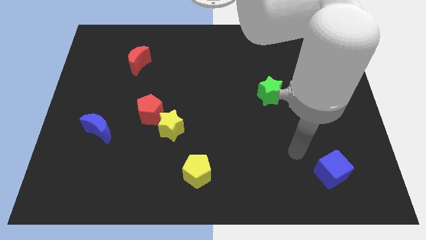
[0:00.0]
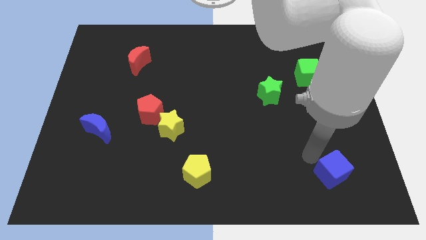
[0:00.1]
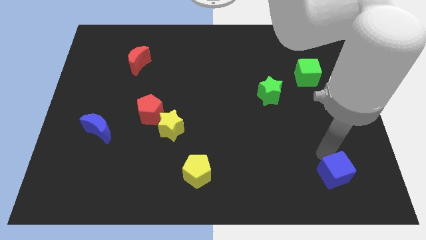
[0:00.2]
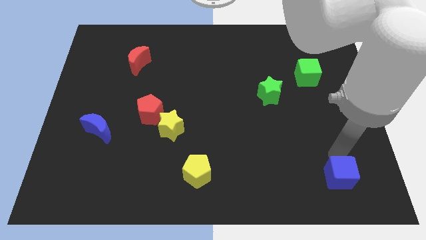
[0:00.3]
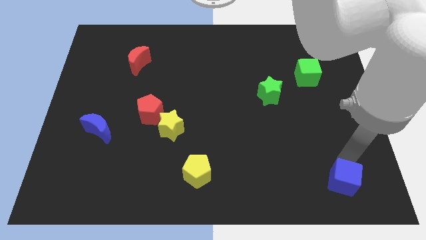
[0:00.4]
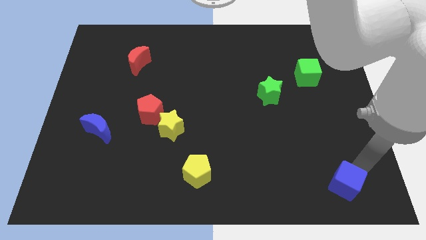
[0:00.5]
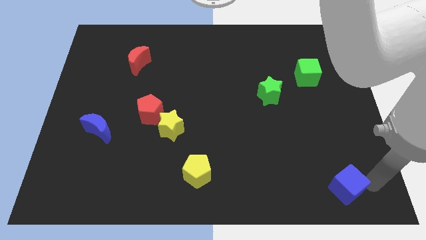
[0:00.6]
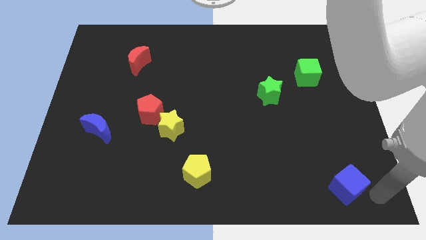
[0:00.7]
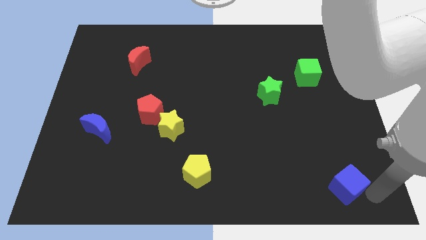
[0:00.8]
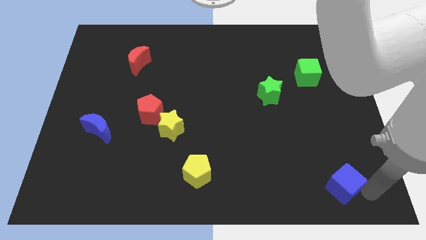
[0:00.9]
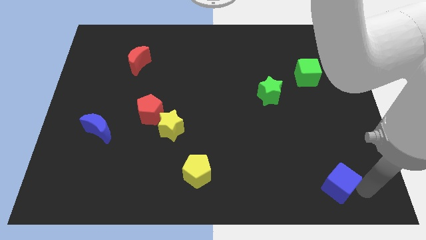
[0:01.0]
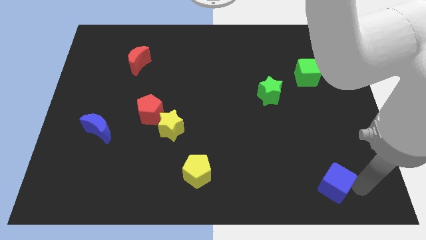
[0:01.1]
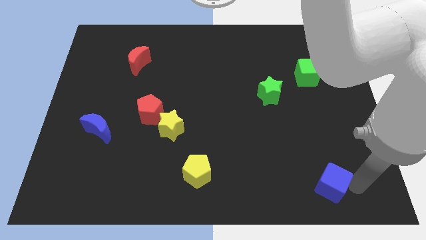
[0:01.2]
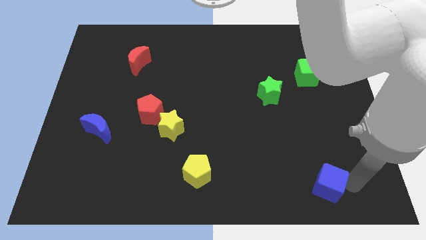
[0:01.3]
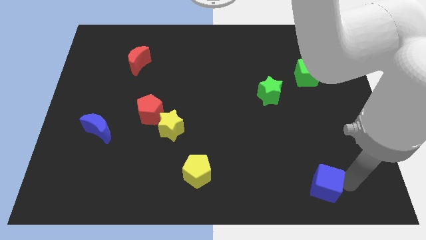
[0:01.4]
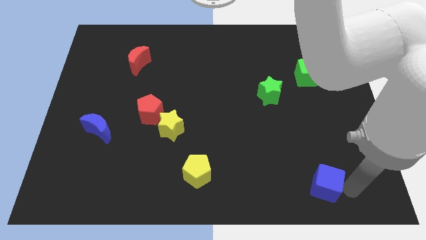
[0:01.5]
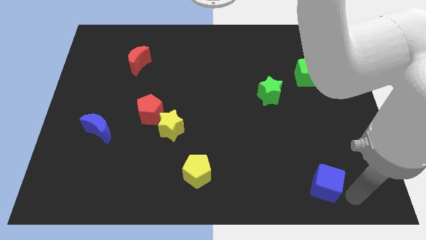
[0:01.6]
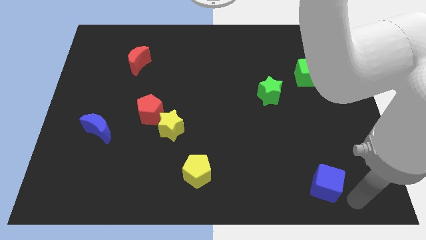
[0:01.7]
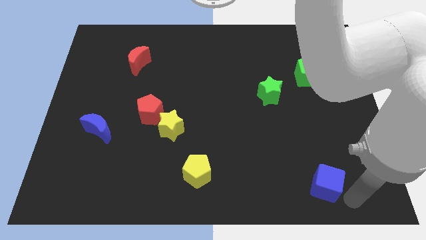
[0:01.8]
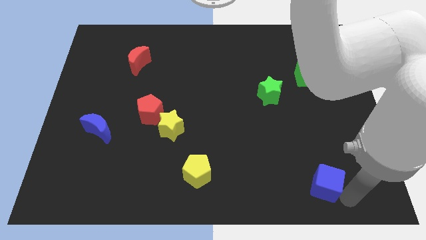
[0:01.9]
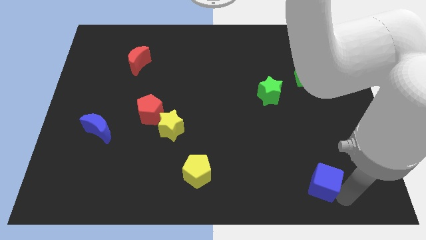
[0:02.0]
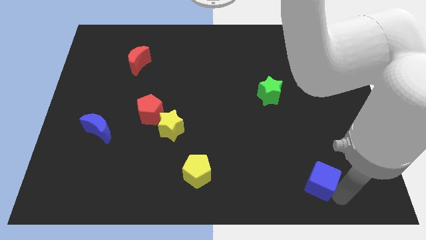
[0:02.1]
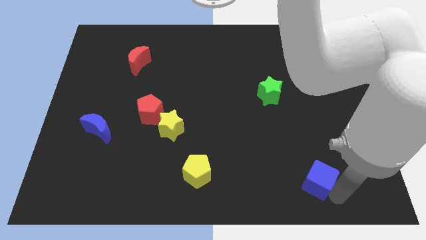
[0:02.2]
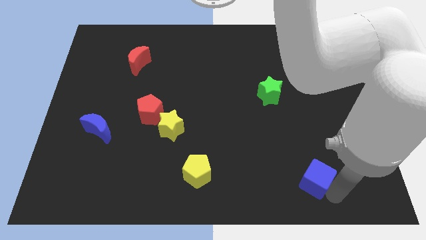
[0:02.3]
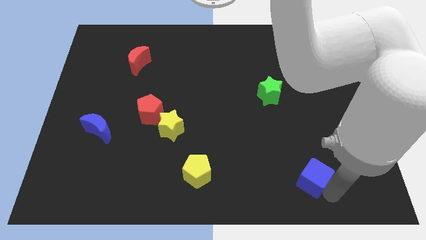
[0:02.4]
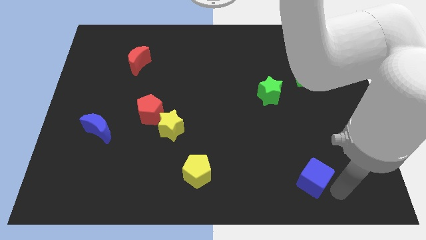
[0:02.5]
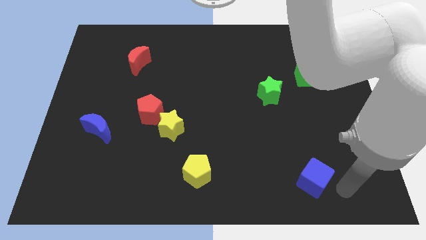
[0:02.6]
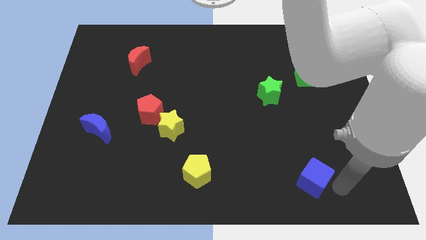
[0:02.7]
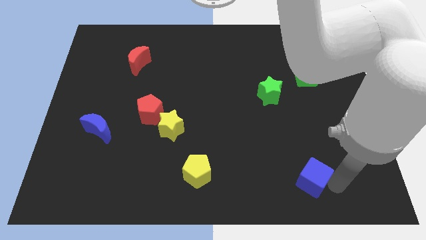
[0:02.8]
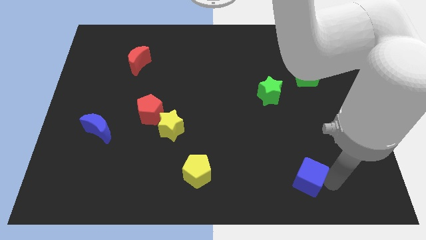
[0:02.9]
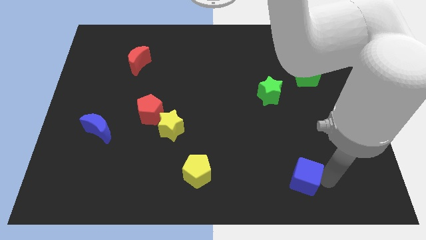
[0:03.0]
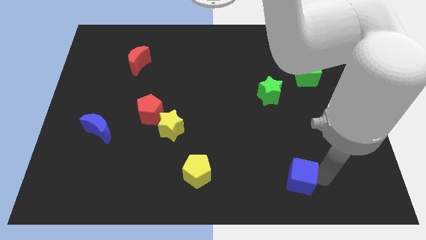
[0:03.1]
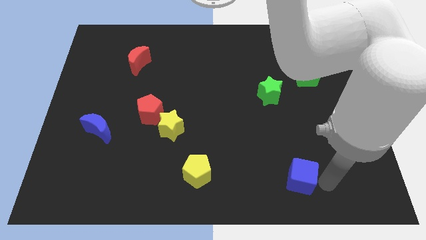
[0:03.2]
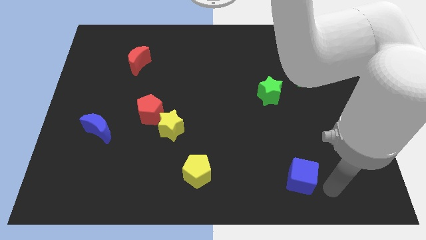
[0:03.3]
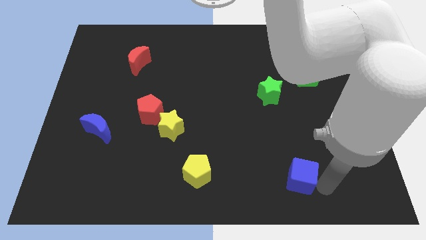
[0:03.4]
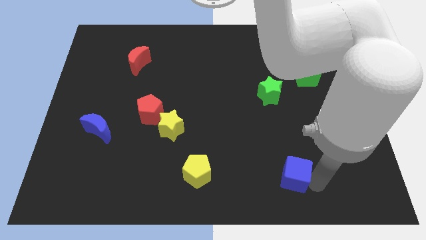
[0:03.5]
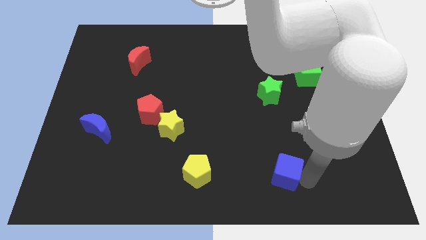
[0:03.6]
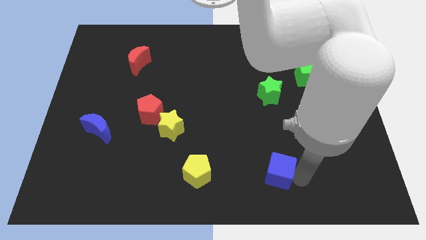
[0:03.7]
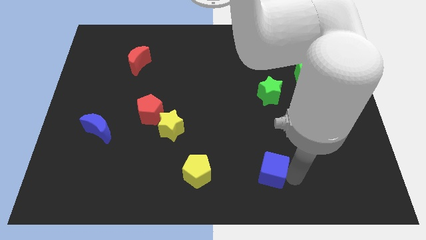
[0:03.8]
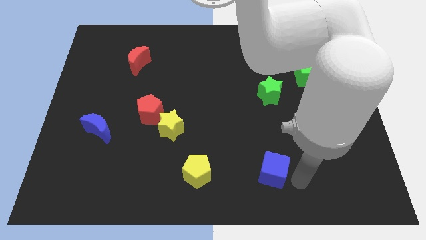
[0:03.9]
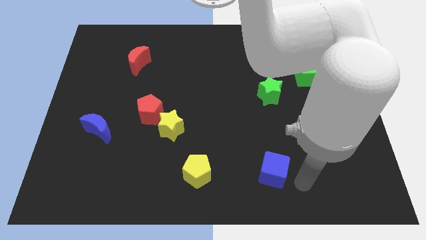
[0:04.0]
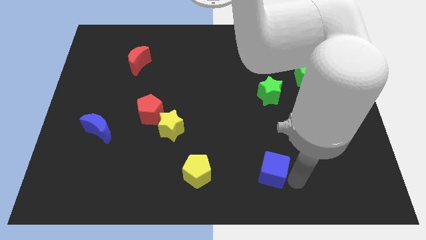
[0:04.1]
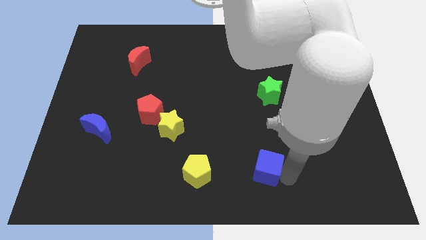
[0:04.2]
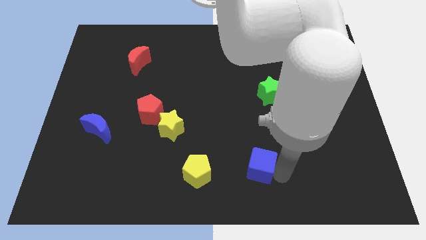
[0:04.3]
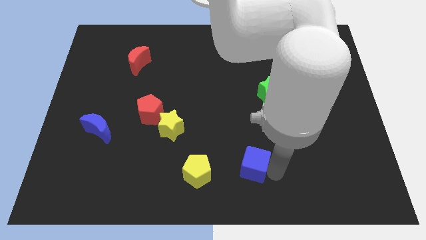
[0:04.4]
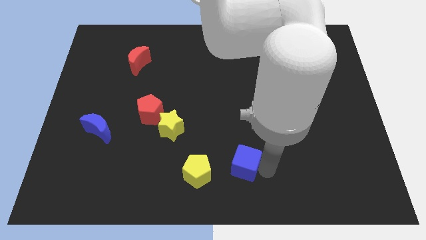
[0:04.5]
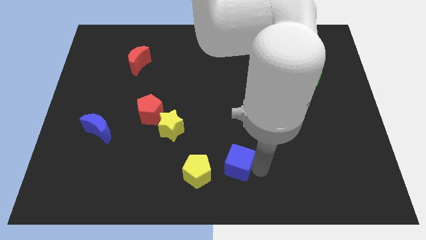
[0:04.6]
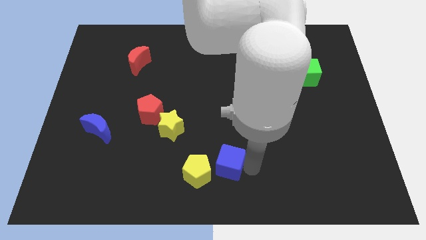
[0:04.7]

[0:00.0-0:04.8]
push the blue cube left

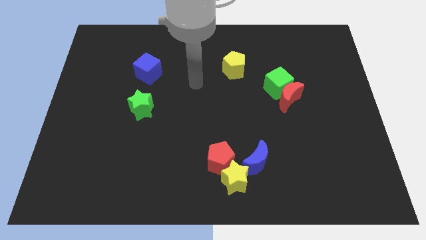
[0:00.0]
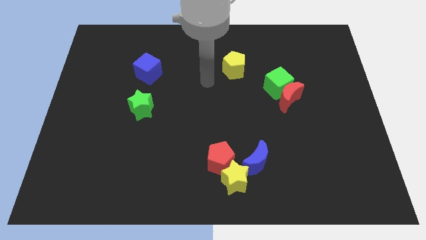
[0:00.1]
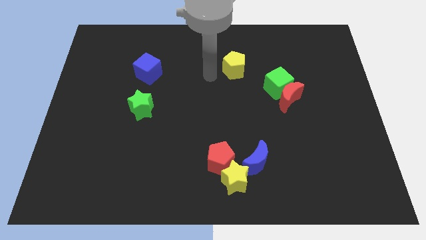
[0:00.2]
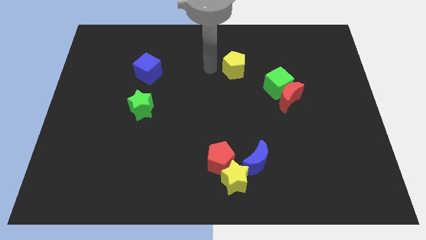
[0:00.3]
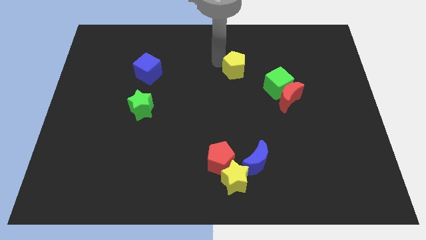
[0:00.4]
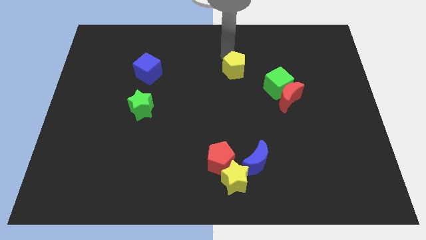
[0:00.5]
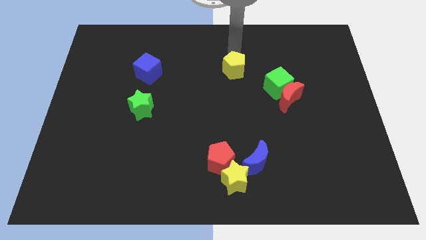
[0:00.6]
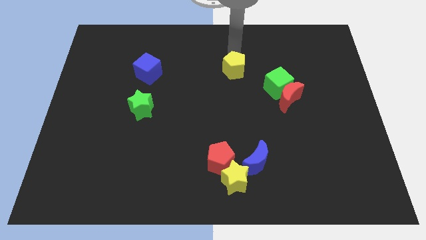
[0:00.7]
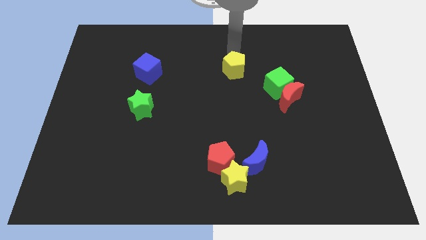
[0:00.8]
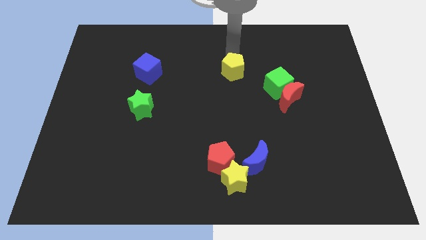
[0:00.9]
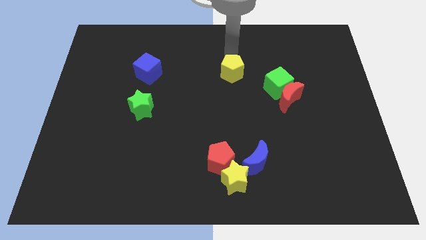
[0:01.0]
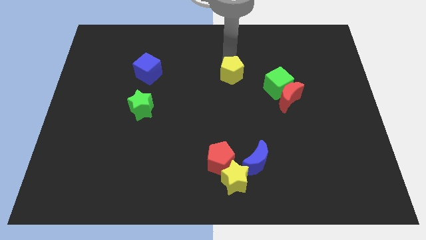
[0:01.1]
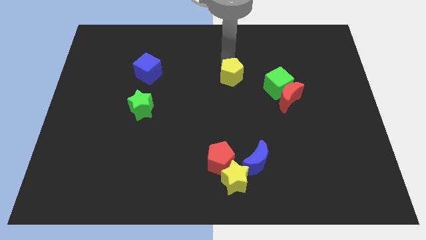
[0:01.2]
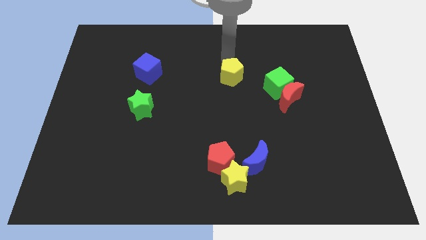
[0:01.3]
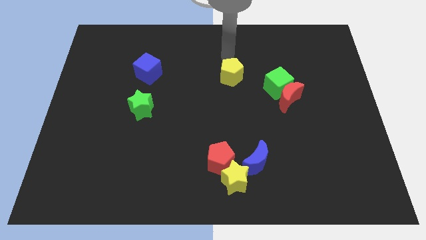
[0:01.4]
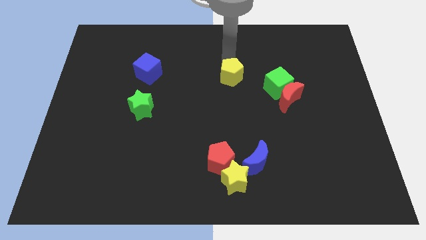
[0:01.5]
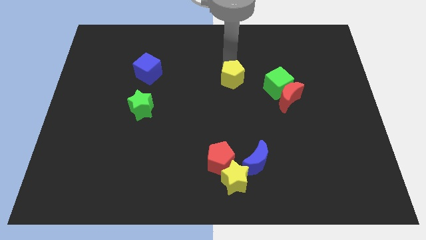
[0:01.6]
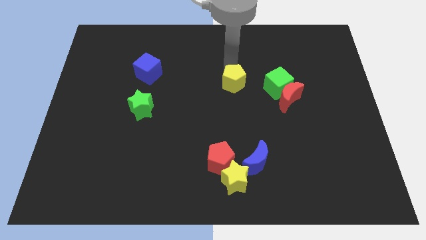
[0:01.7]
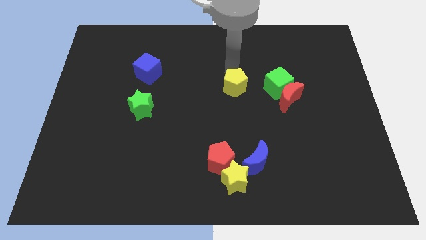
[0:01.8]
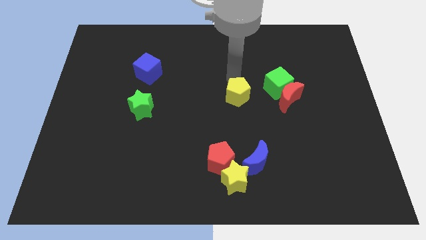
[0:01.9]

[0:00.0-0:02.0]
slide the yellow pentagon a little down

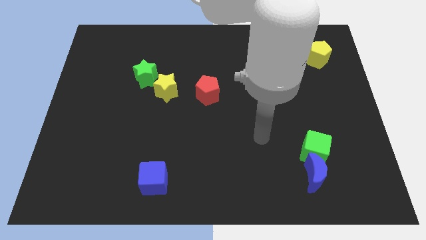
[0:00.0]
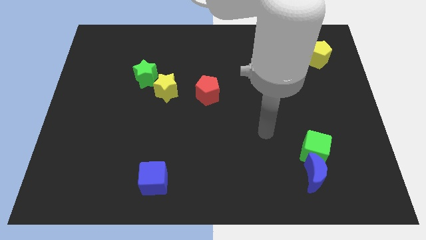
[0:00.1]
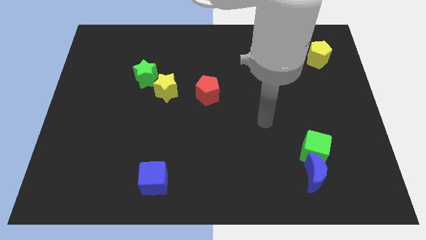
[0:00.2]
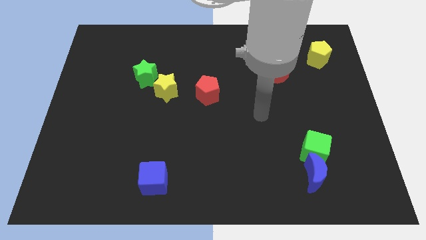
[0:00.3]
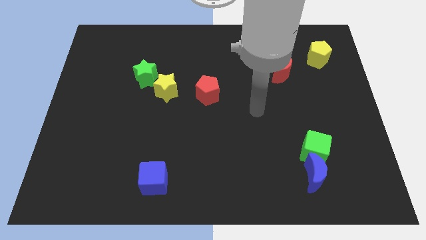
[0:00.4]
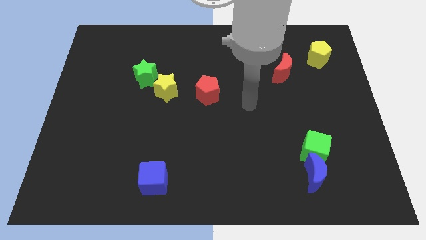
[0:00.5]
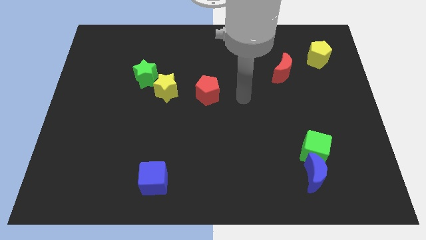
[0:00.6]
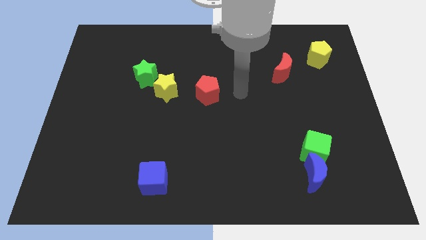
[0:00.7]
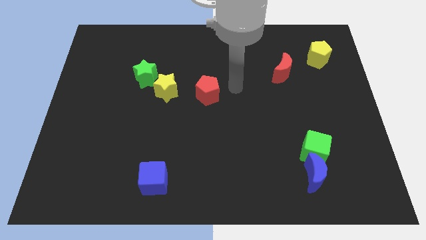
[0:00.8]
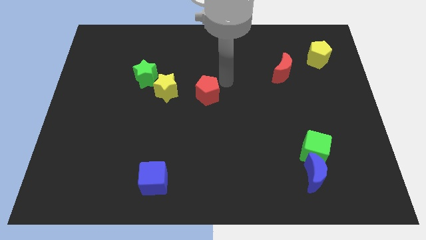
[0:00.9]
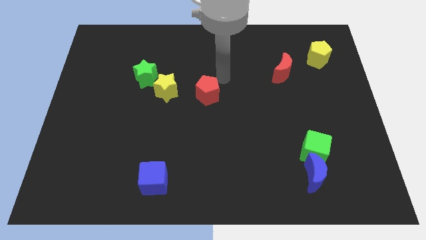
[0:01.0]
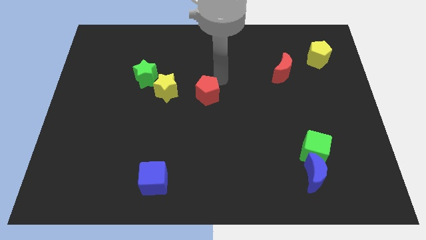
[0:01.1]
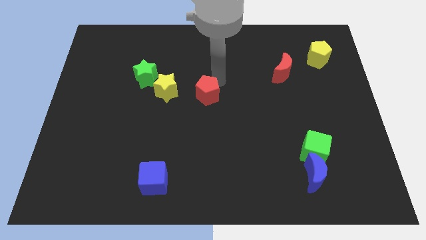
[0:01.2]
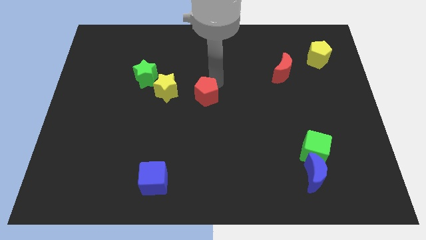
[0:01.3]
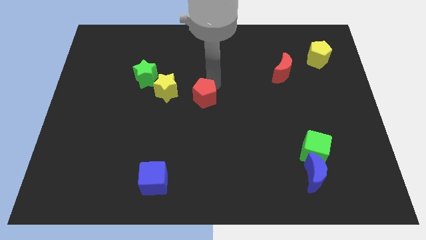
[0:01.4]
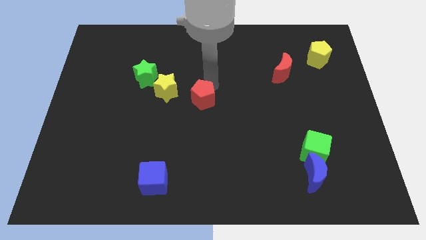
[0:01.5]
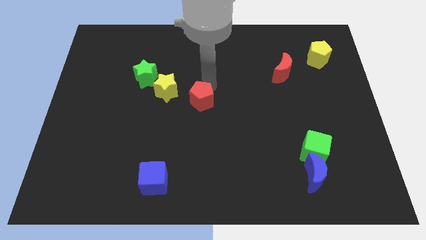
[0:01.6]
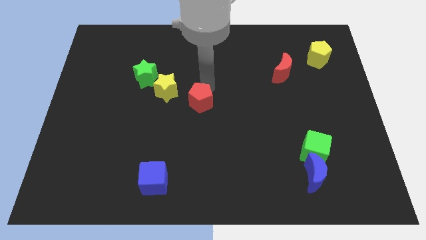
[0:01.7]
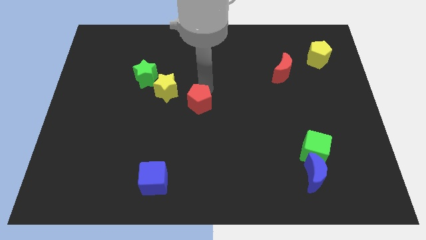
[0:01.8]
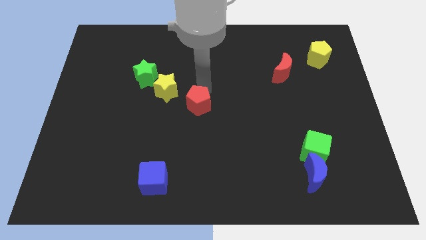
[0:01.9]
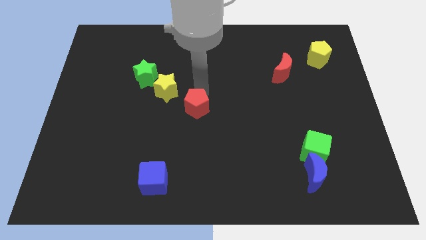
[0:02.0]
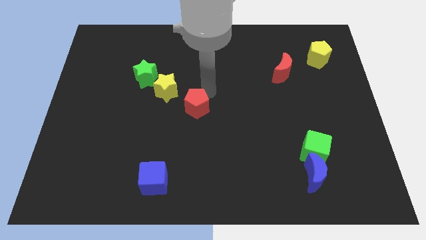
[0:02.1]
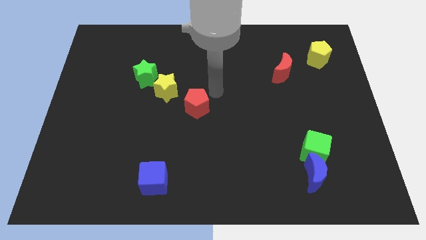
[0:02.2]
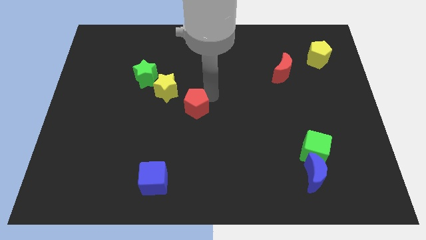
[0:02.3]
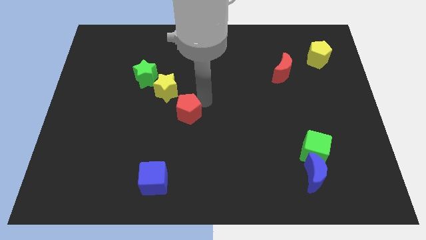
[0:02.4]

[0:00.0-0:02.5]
slightly move the red pentagon diagonally down and left
